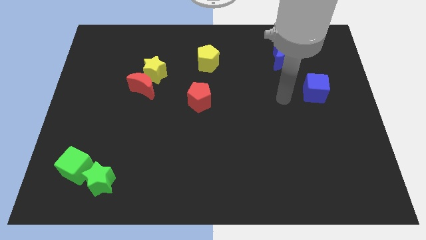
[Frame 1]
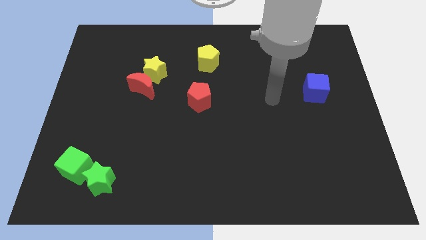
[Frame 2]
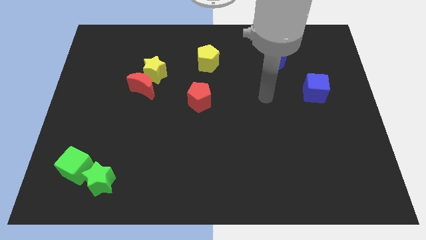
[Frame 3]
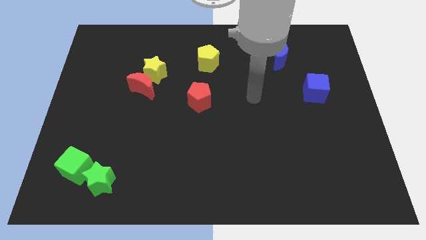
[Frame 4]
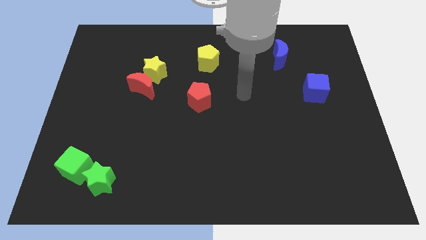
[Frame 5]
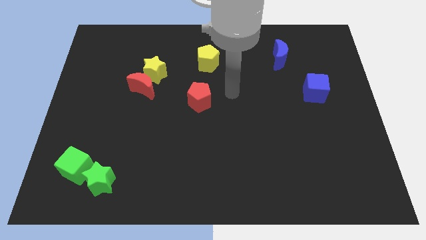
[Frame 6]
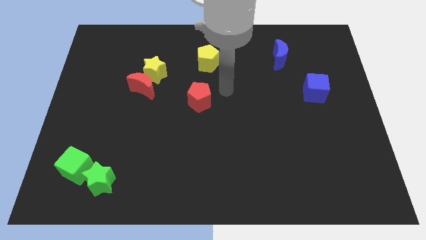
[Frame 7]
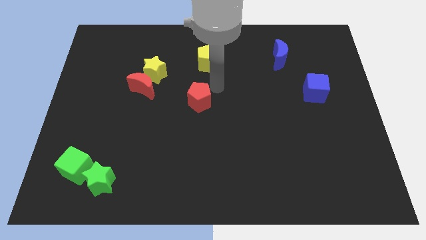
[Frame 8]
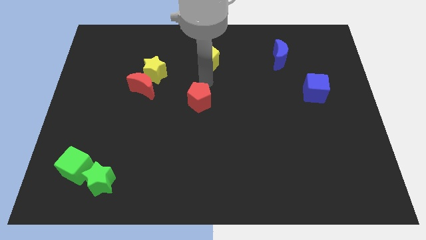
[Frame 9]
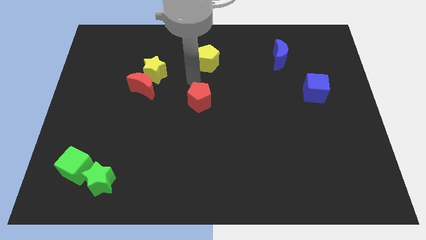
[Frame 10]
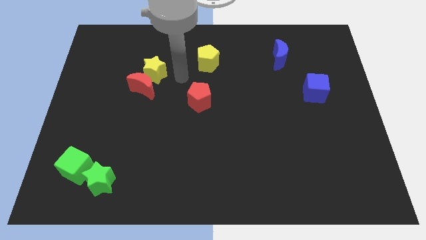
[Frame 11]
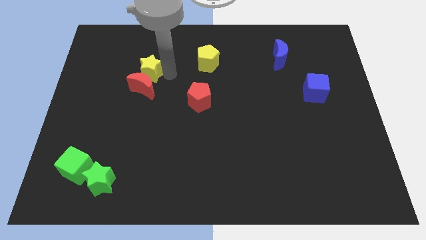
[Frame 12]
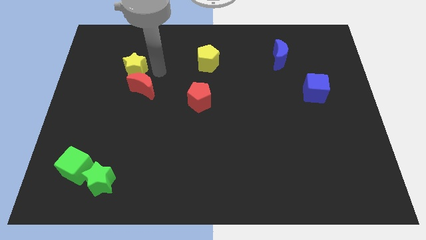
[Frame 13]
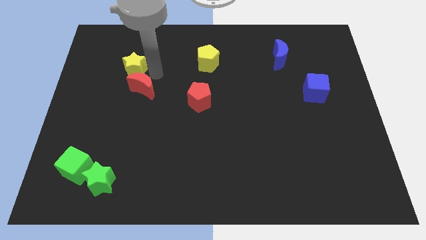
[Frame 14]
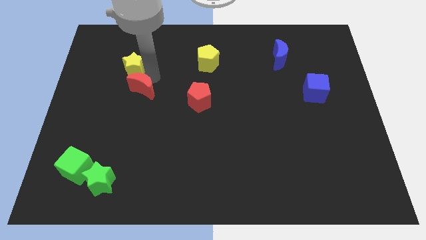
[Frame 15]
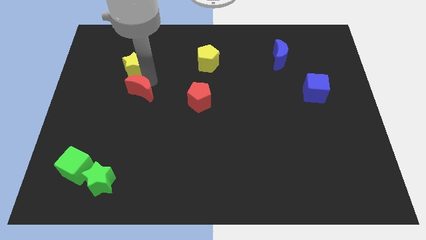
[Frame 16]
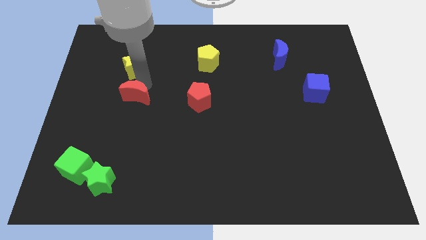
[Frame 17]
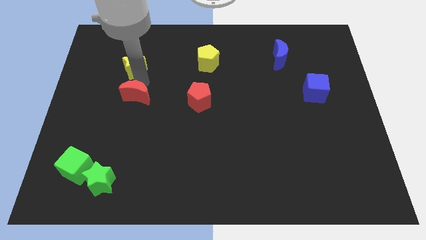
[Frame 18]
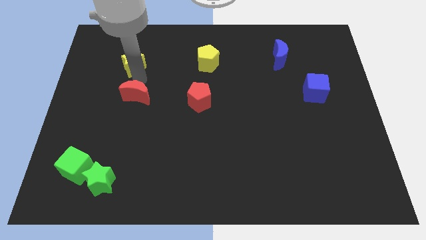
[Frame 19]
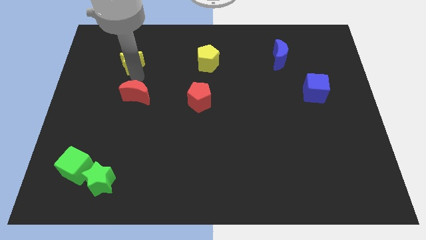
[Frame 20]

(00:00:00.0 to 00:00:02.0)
separate the red moon from the yellow star

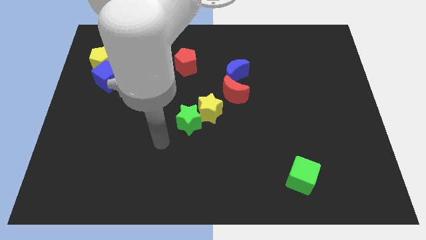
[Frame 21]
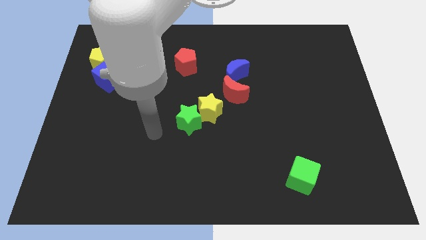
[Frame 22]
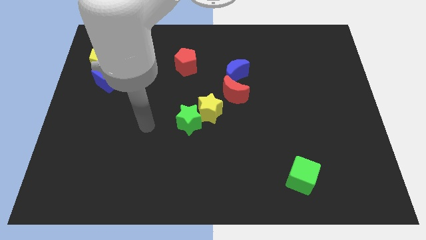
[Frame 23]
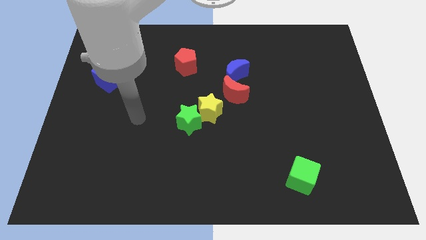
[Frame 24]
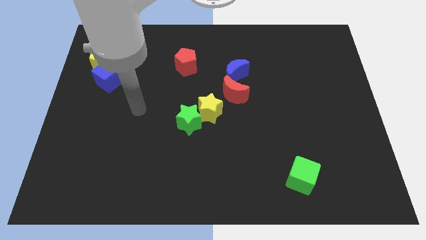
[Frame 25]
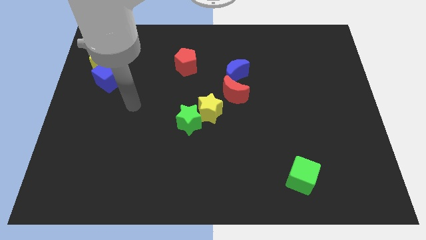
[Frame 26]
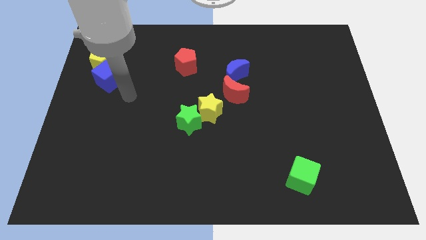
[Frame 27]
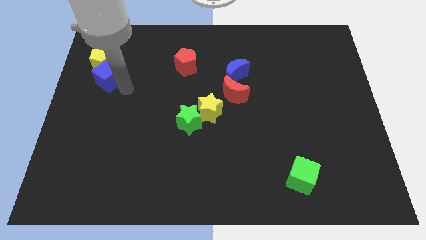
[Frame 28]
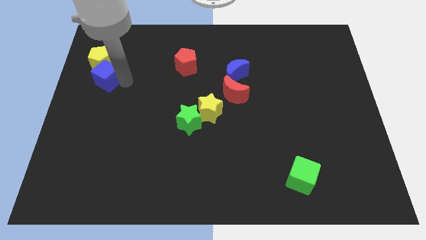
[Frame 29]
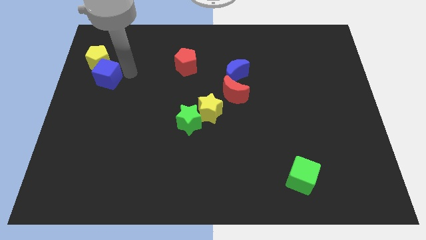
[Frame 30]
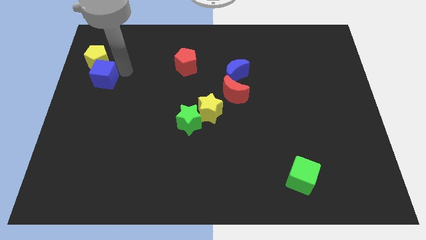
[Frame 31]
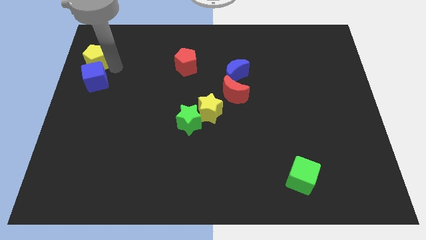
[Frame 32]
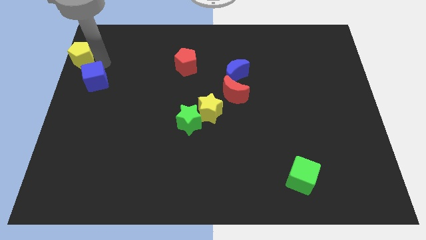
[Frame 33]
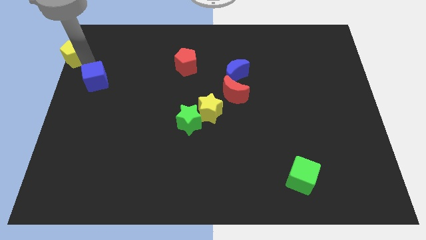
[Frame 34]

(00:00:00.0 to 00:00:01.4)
pull the blue cube apart from the yellow pentagon

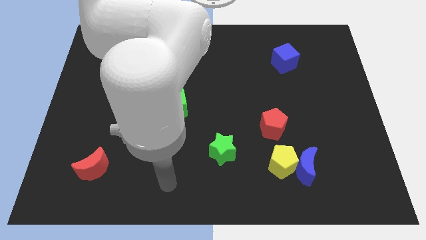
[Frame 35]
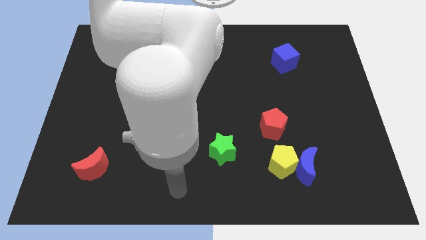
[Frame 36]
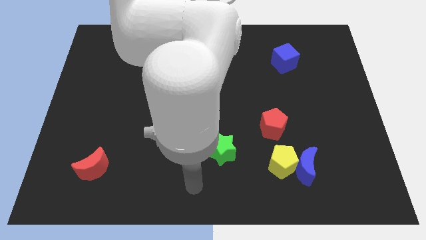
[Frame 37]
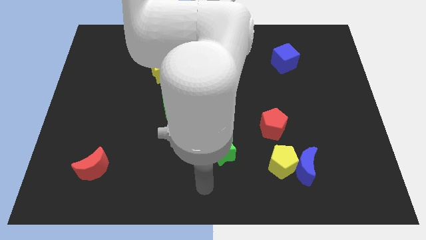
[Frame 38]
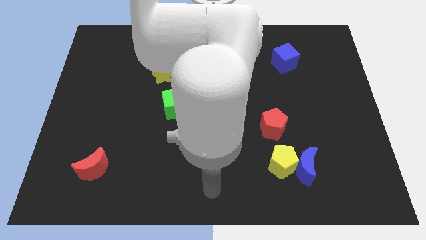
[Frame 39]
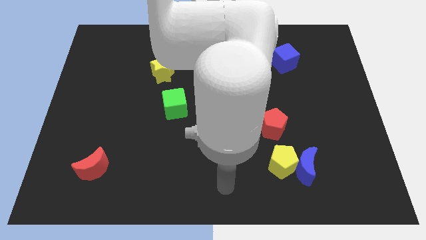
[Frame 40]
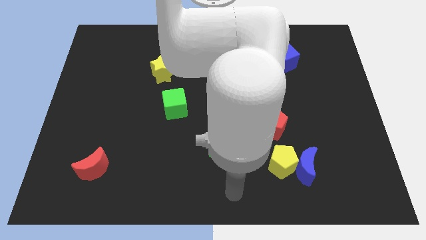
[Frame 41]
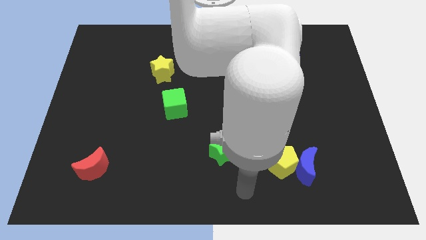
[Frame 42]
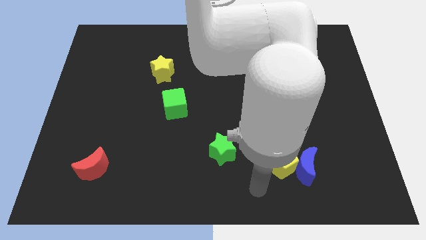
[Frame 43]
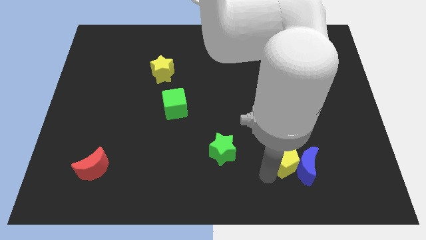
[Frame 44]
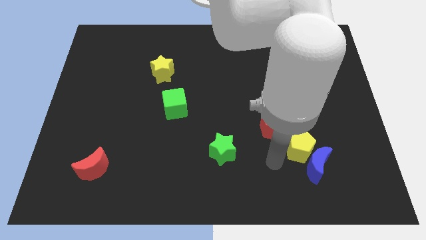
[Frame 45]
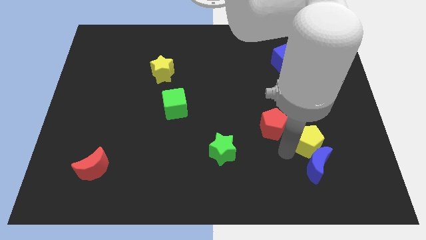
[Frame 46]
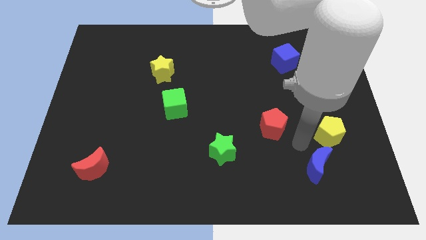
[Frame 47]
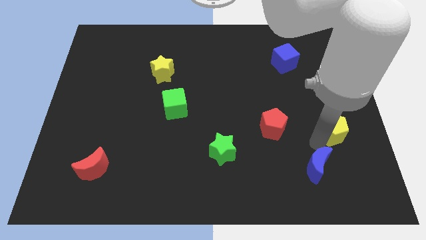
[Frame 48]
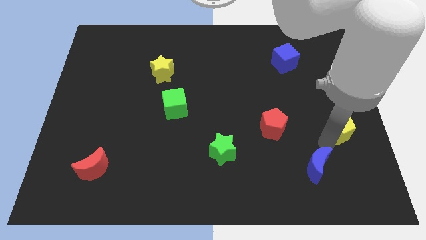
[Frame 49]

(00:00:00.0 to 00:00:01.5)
pull the blue moon apart from the yellow pentagon

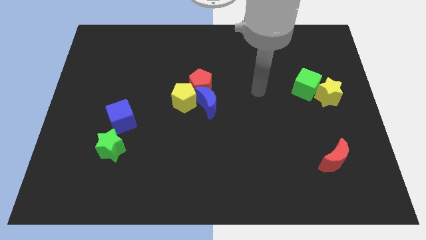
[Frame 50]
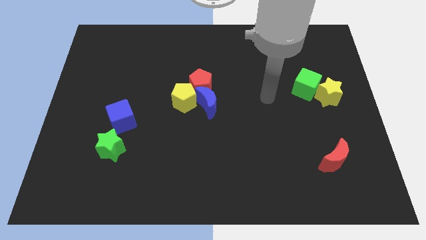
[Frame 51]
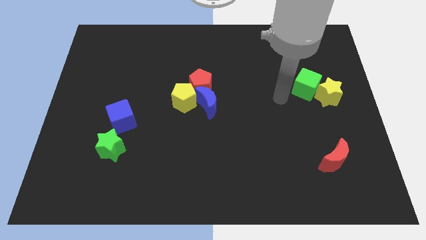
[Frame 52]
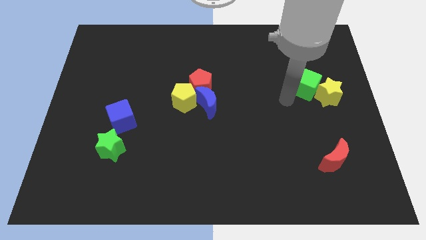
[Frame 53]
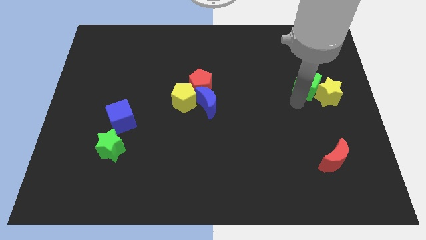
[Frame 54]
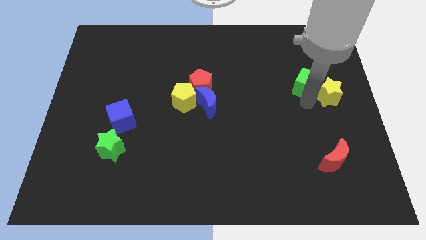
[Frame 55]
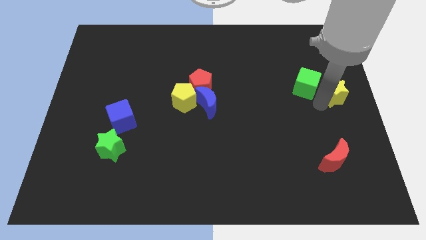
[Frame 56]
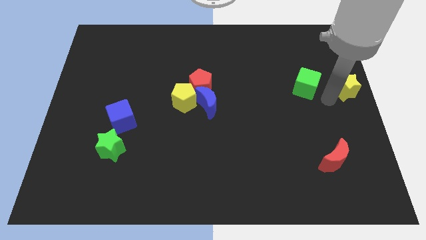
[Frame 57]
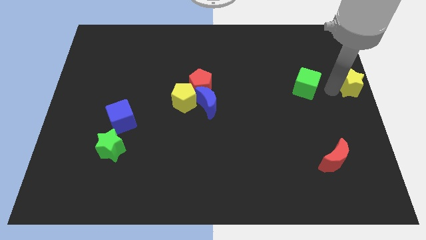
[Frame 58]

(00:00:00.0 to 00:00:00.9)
move the green cube away from the yellow star

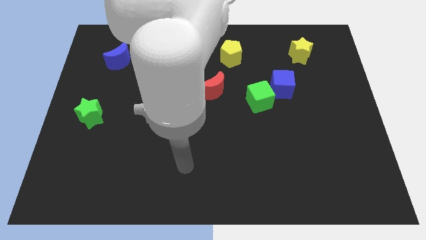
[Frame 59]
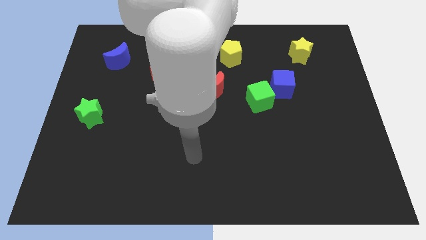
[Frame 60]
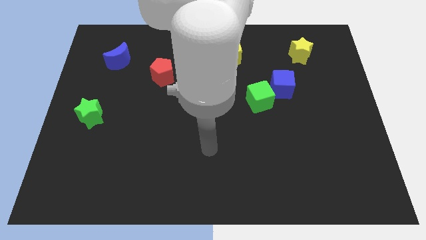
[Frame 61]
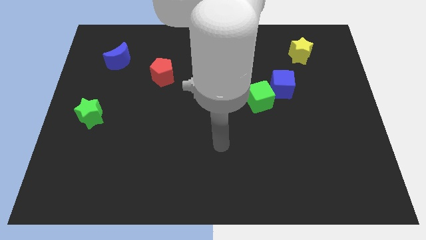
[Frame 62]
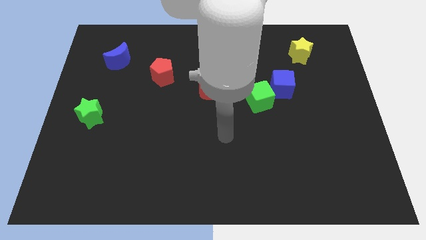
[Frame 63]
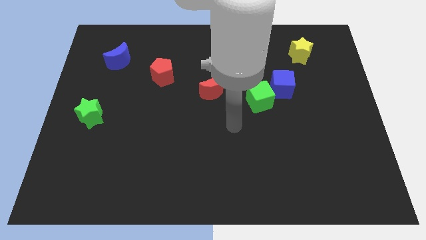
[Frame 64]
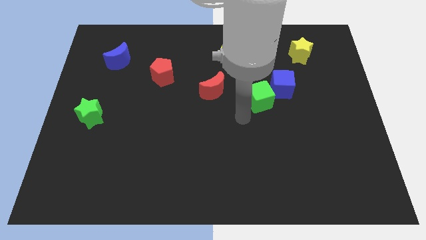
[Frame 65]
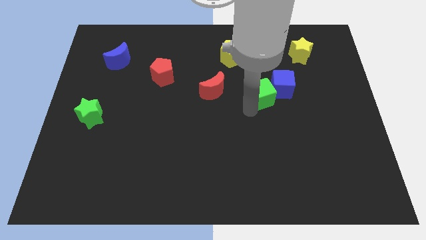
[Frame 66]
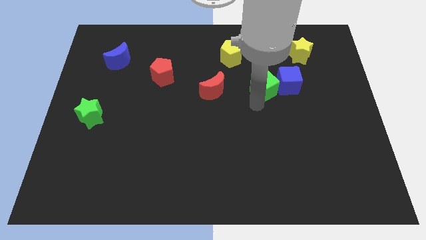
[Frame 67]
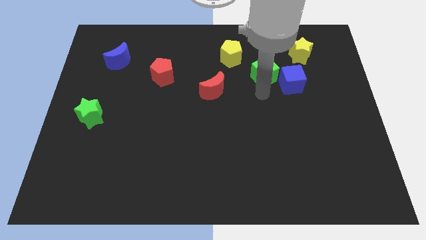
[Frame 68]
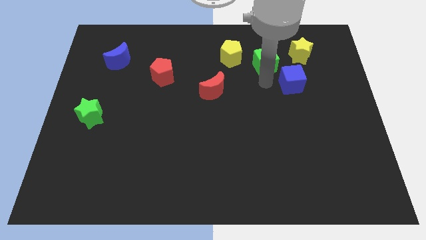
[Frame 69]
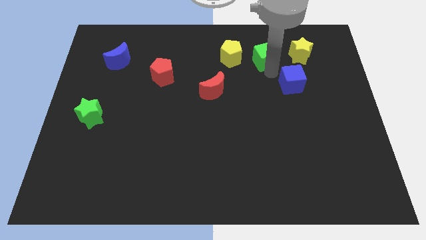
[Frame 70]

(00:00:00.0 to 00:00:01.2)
move the blue cube away from the green cube

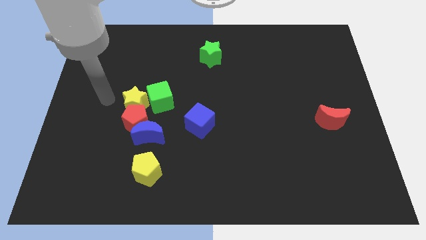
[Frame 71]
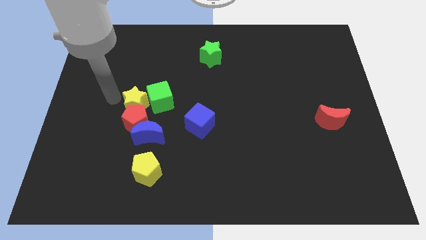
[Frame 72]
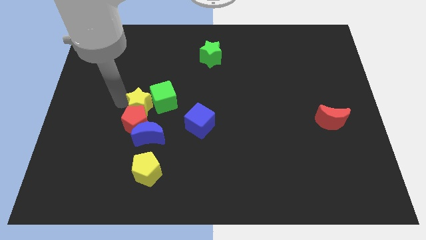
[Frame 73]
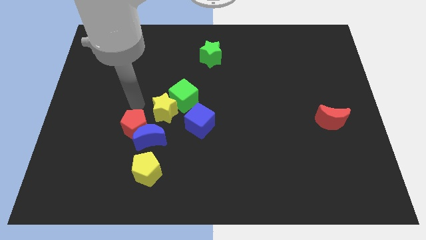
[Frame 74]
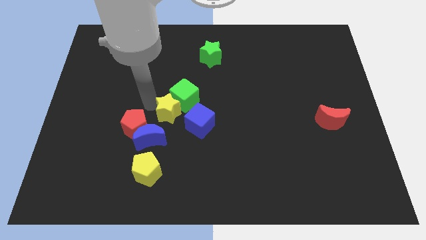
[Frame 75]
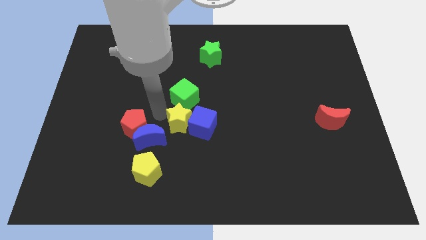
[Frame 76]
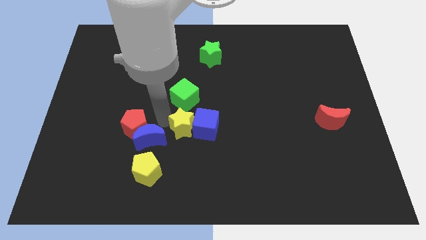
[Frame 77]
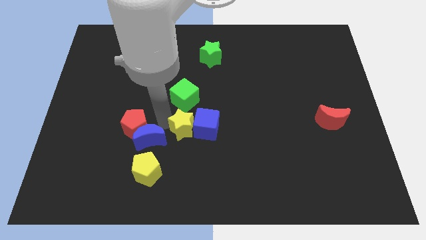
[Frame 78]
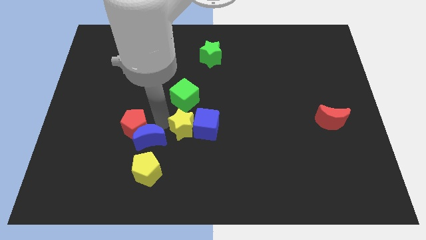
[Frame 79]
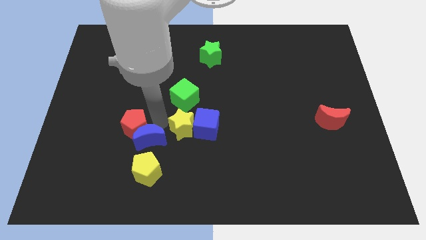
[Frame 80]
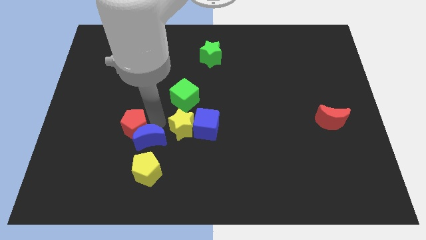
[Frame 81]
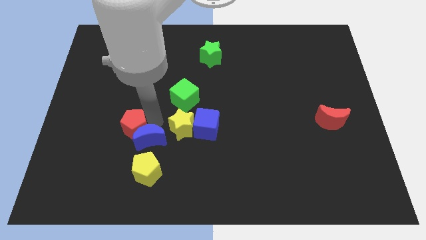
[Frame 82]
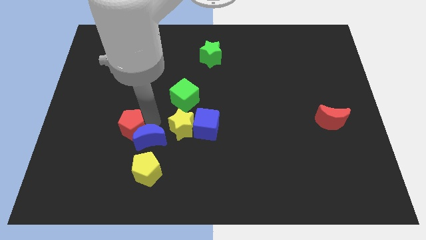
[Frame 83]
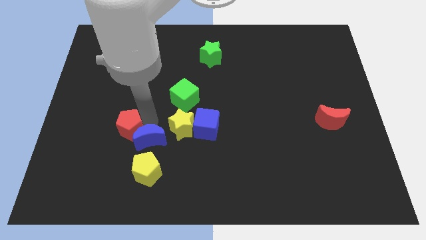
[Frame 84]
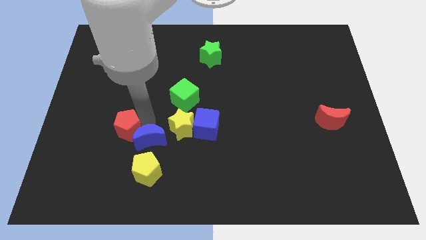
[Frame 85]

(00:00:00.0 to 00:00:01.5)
move the red pentagon away from the group of blocks

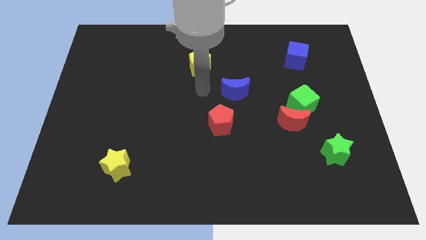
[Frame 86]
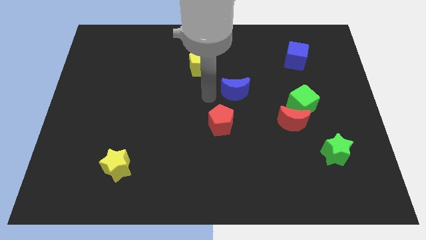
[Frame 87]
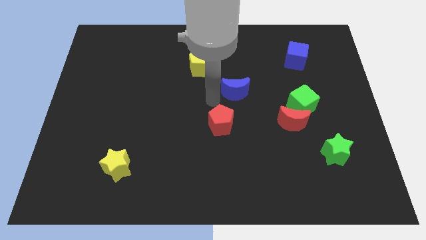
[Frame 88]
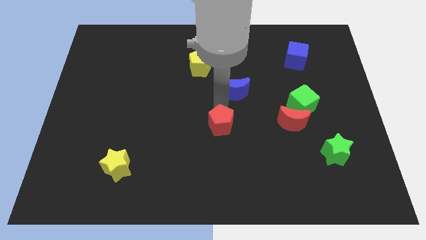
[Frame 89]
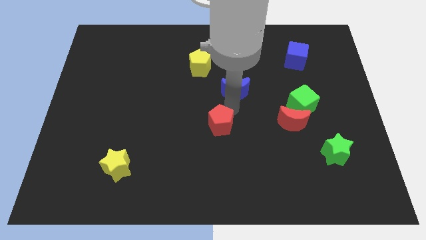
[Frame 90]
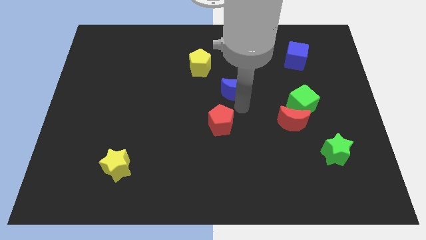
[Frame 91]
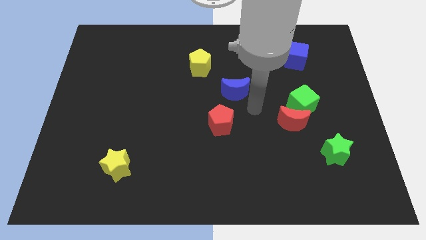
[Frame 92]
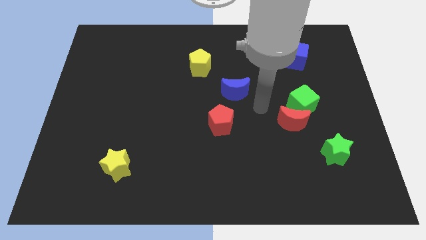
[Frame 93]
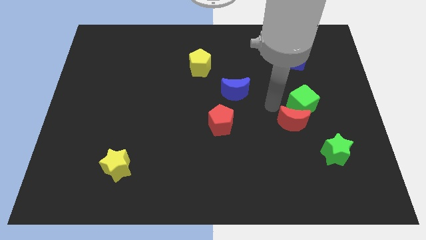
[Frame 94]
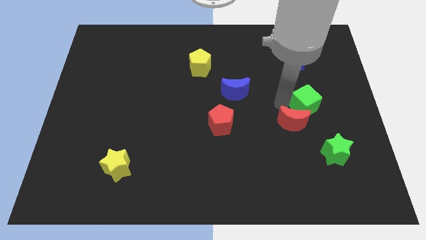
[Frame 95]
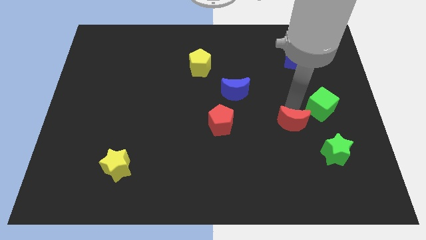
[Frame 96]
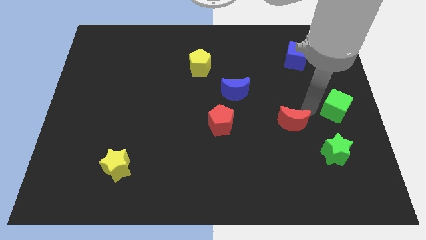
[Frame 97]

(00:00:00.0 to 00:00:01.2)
pull the red moon apart from the green cube
